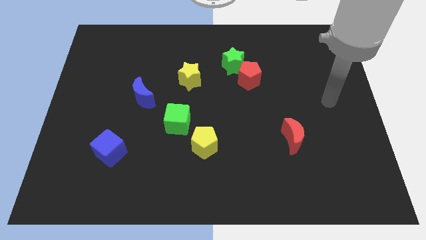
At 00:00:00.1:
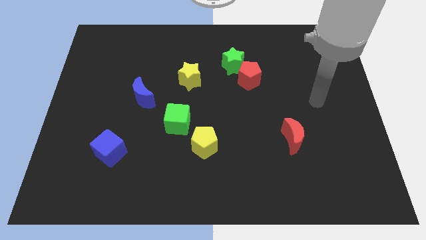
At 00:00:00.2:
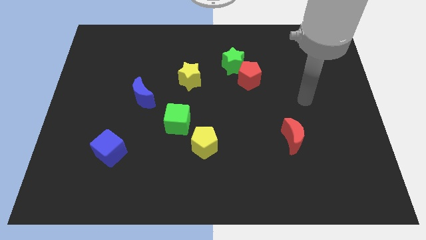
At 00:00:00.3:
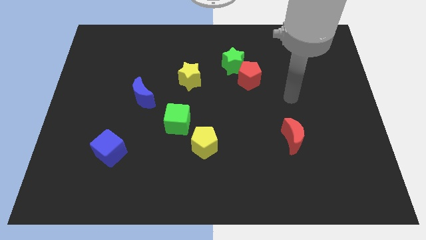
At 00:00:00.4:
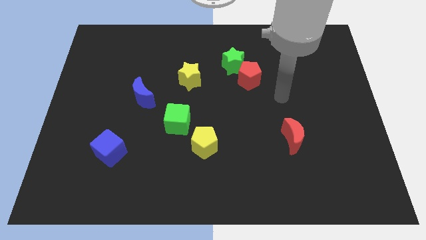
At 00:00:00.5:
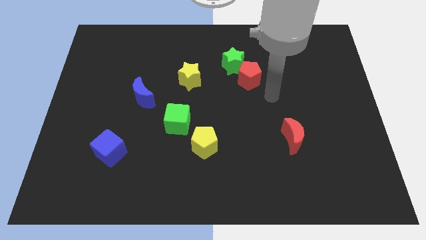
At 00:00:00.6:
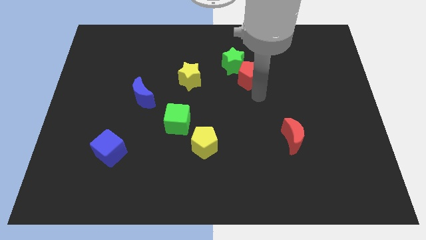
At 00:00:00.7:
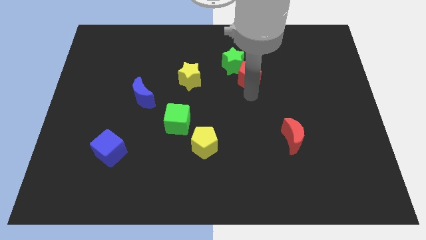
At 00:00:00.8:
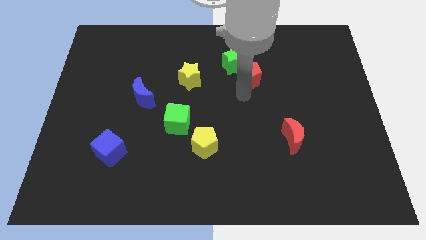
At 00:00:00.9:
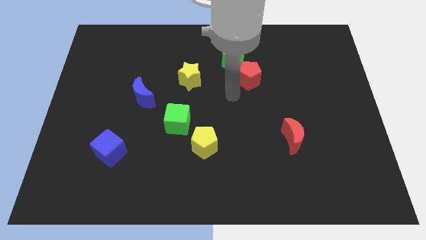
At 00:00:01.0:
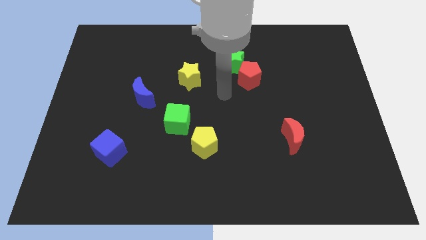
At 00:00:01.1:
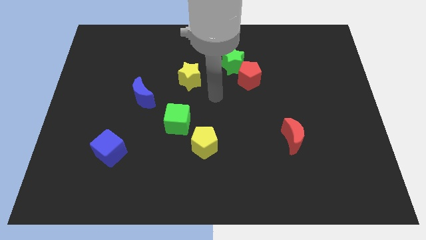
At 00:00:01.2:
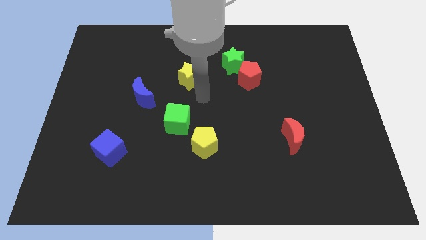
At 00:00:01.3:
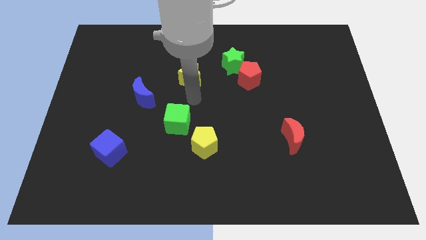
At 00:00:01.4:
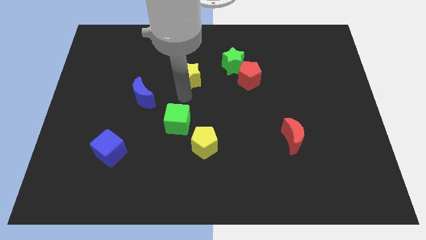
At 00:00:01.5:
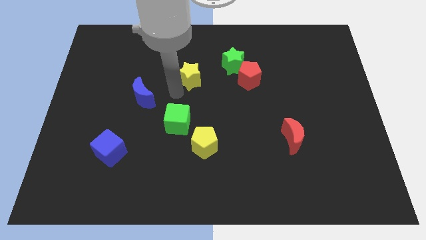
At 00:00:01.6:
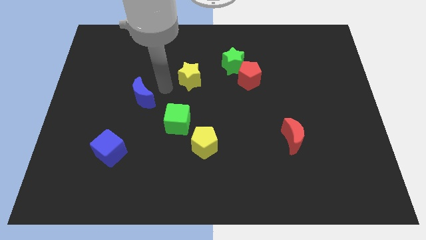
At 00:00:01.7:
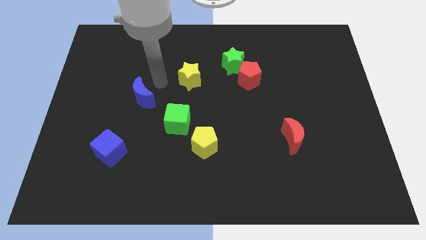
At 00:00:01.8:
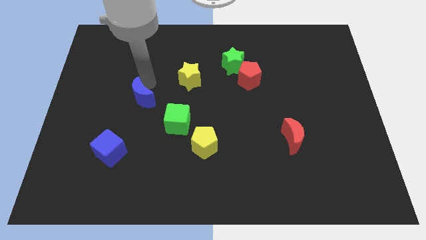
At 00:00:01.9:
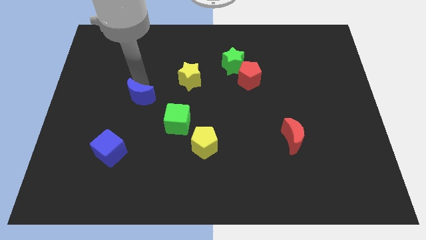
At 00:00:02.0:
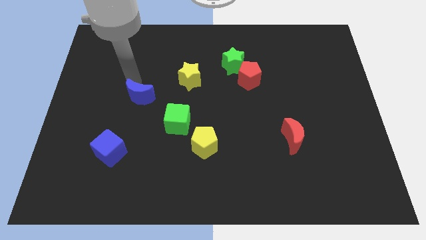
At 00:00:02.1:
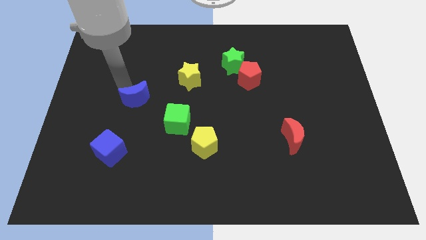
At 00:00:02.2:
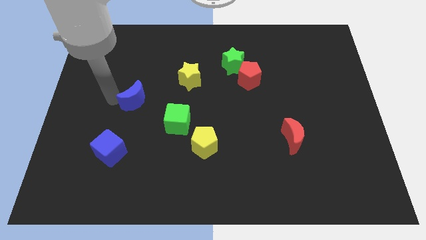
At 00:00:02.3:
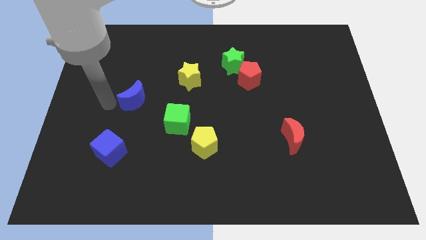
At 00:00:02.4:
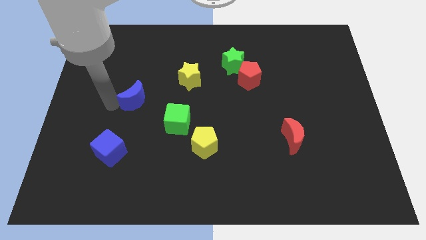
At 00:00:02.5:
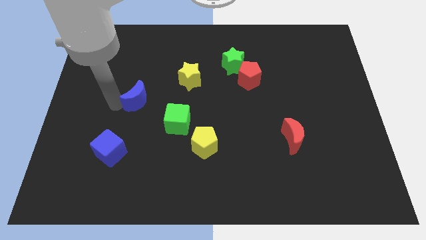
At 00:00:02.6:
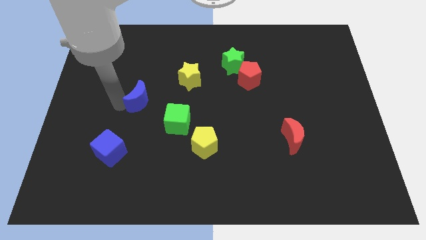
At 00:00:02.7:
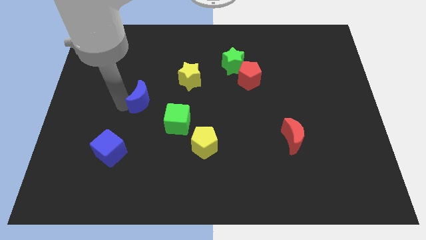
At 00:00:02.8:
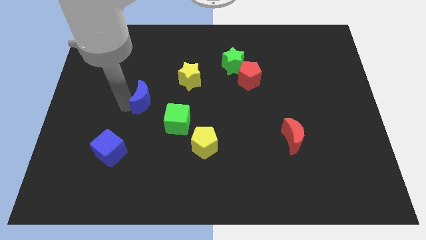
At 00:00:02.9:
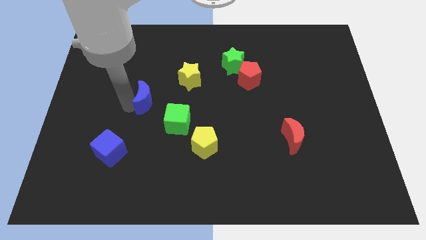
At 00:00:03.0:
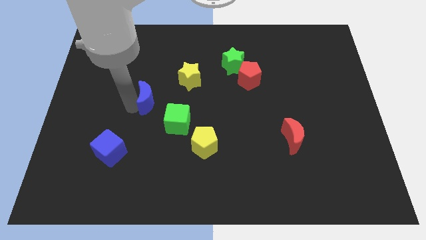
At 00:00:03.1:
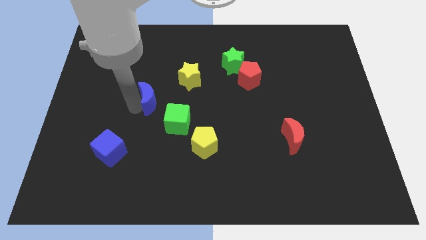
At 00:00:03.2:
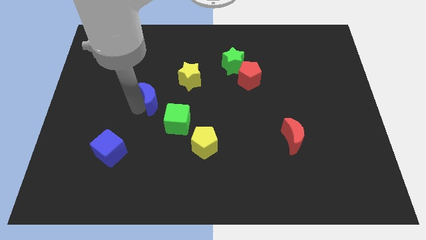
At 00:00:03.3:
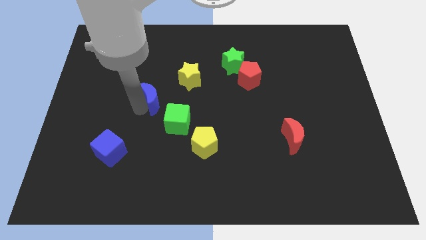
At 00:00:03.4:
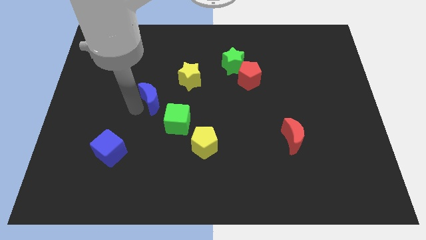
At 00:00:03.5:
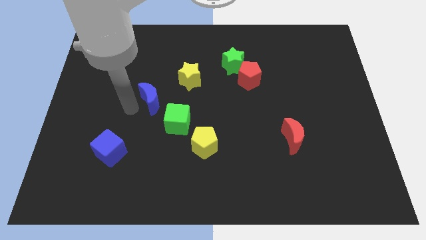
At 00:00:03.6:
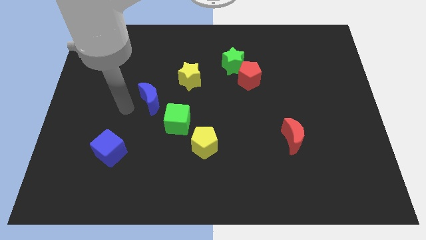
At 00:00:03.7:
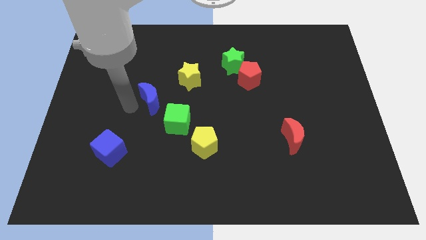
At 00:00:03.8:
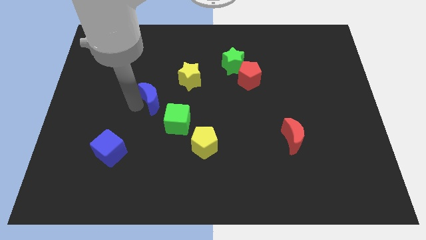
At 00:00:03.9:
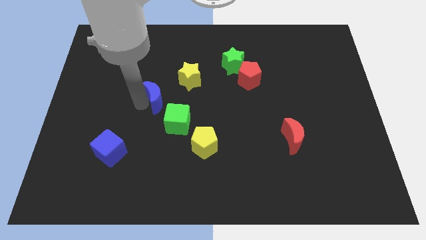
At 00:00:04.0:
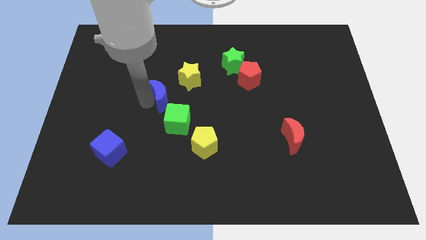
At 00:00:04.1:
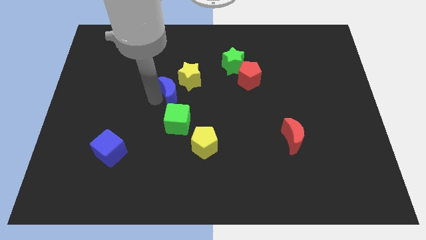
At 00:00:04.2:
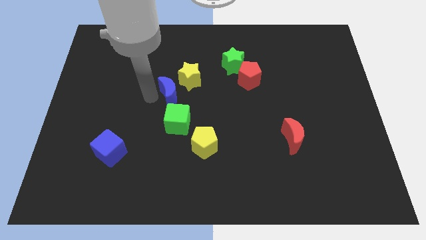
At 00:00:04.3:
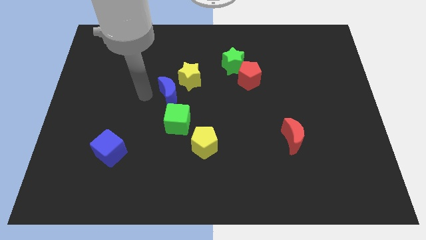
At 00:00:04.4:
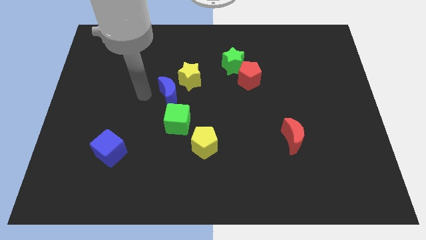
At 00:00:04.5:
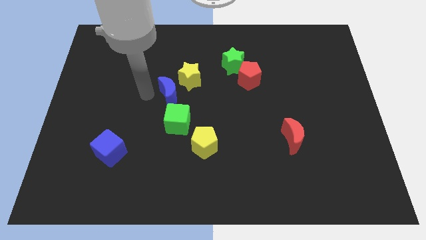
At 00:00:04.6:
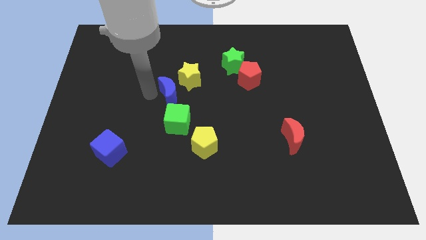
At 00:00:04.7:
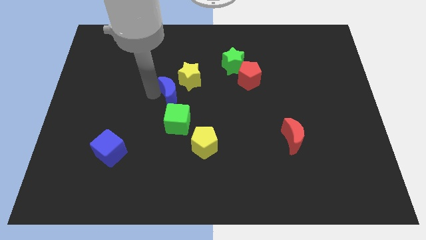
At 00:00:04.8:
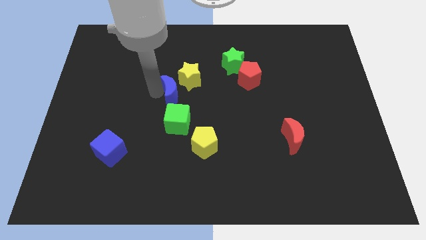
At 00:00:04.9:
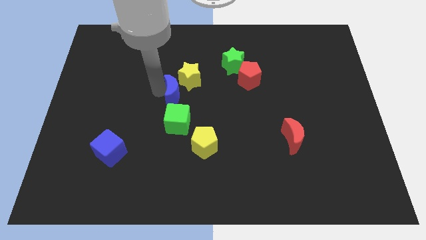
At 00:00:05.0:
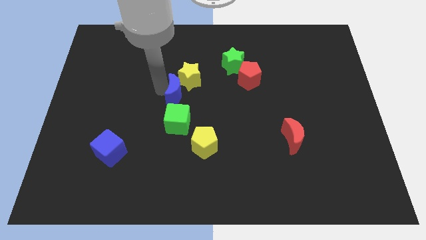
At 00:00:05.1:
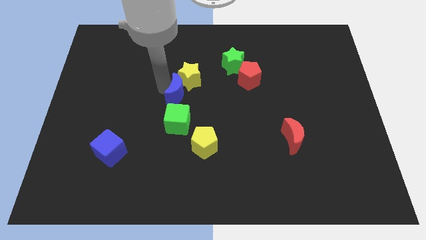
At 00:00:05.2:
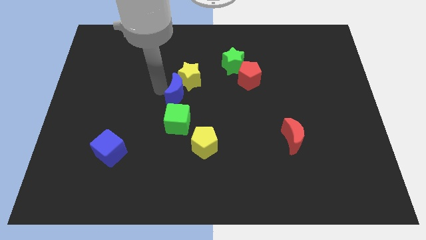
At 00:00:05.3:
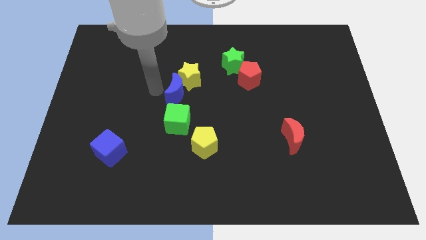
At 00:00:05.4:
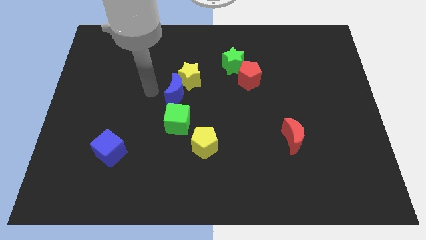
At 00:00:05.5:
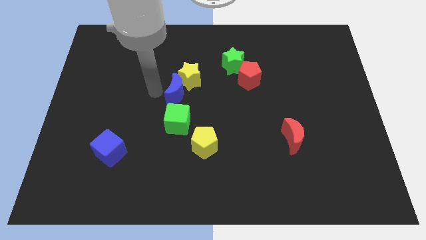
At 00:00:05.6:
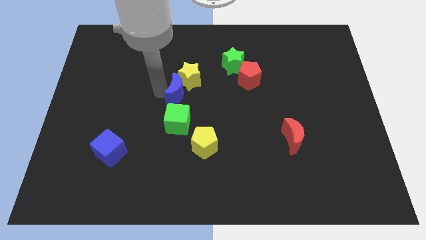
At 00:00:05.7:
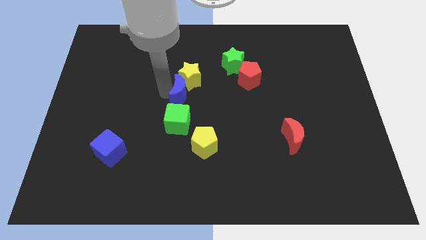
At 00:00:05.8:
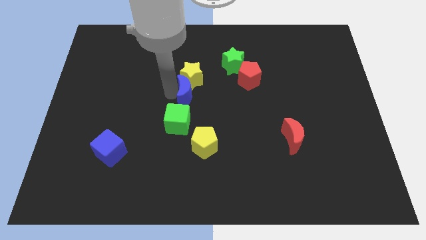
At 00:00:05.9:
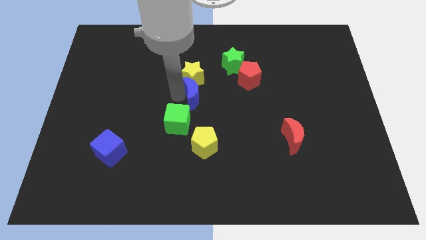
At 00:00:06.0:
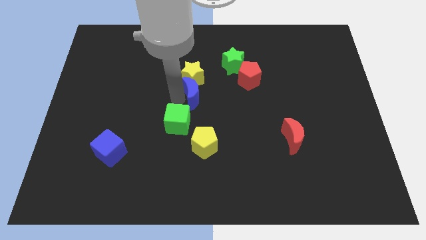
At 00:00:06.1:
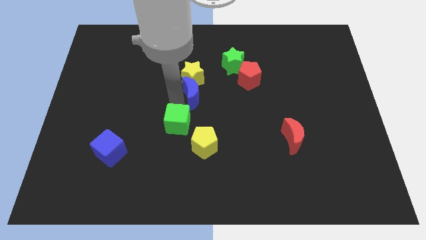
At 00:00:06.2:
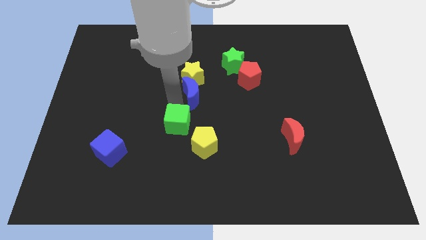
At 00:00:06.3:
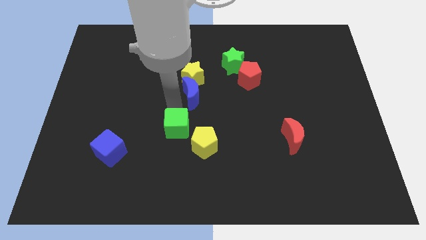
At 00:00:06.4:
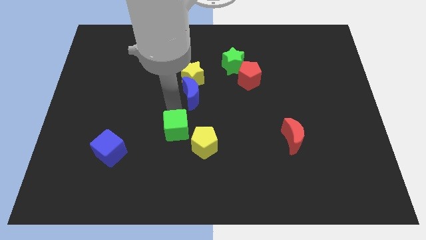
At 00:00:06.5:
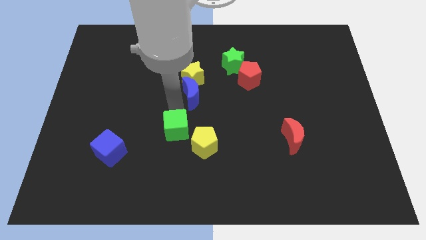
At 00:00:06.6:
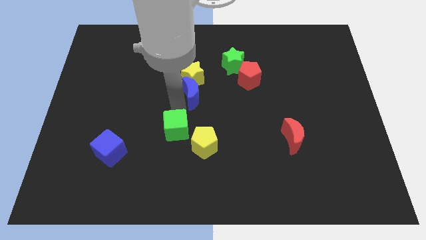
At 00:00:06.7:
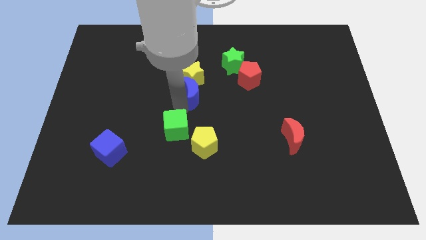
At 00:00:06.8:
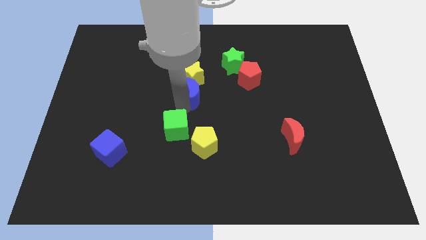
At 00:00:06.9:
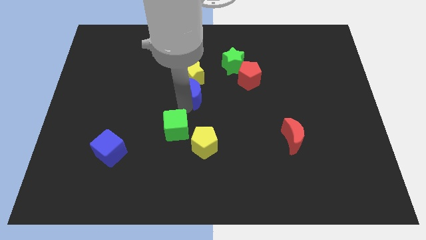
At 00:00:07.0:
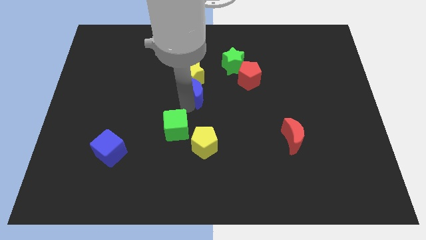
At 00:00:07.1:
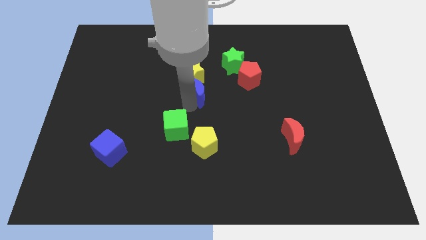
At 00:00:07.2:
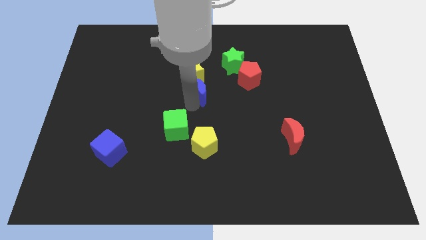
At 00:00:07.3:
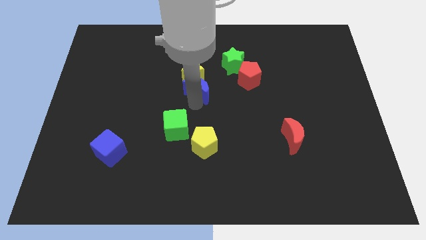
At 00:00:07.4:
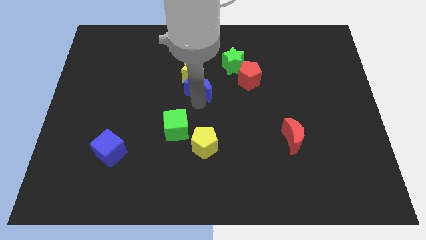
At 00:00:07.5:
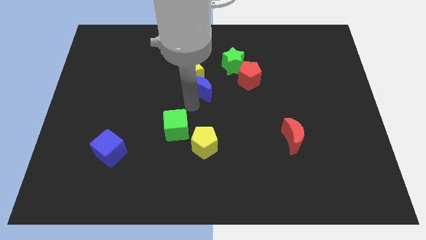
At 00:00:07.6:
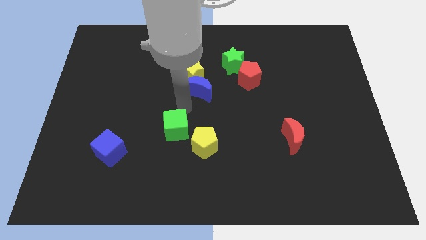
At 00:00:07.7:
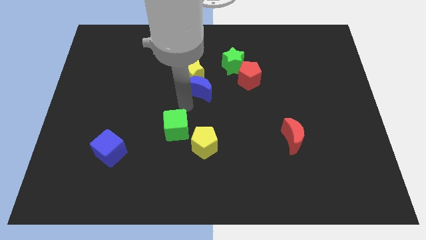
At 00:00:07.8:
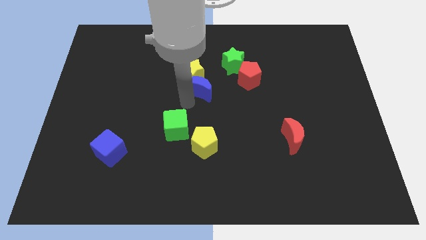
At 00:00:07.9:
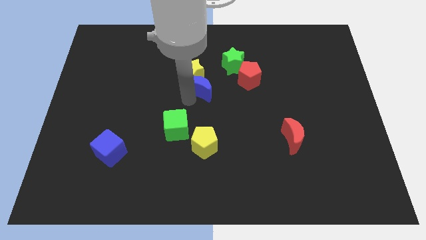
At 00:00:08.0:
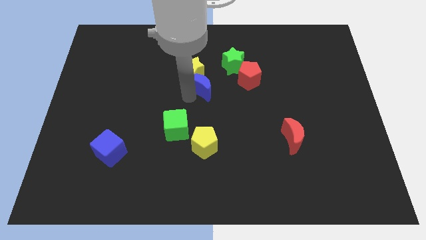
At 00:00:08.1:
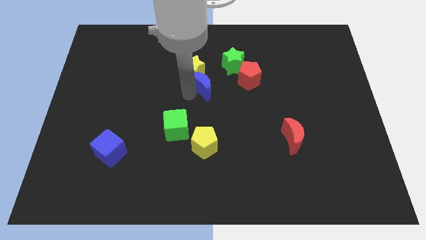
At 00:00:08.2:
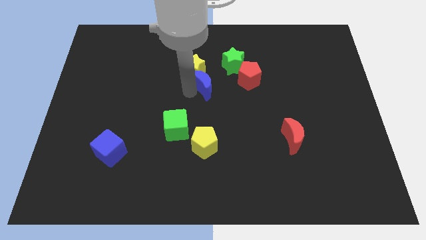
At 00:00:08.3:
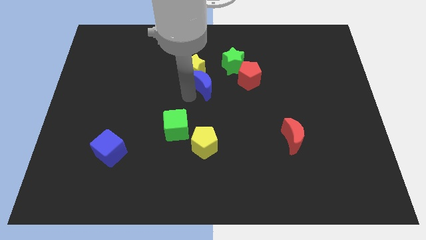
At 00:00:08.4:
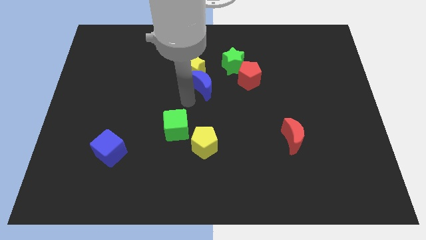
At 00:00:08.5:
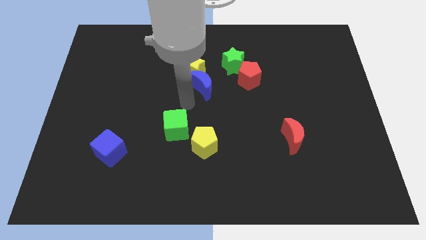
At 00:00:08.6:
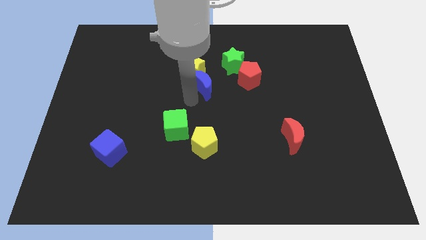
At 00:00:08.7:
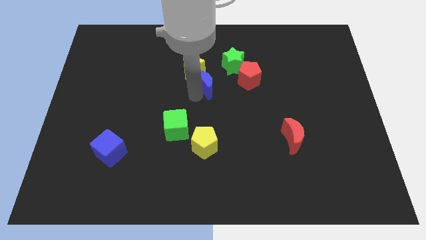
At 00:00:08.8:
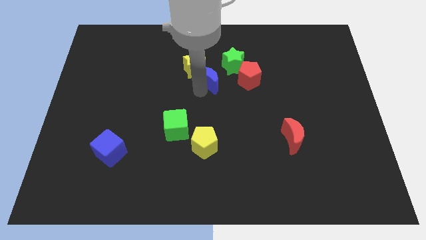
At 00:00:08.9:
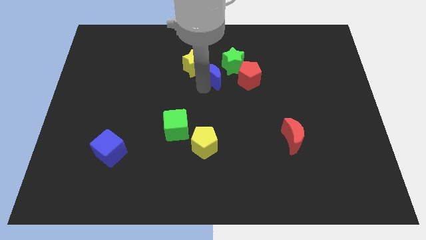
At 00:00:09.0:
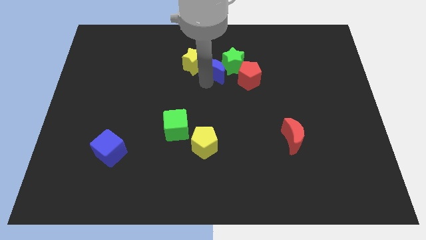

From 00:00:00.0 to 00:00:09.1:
push the blue moon next to the green star
